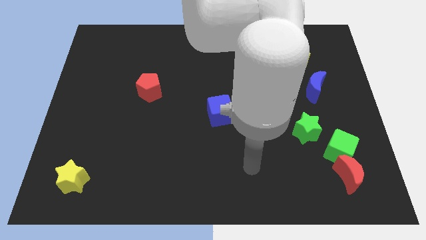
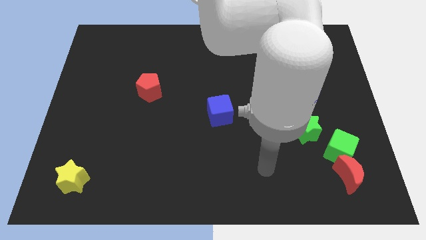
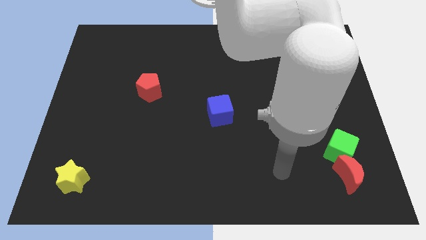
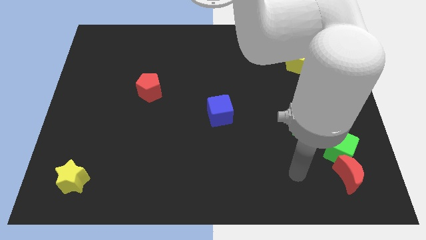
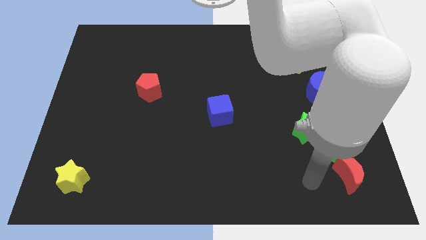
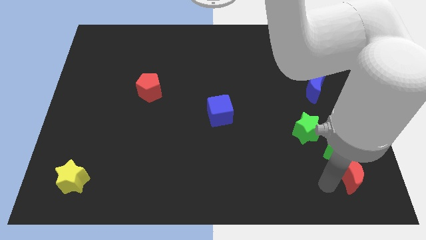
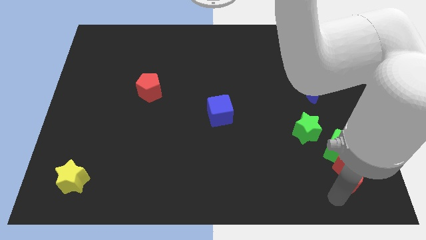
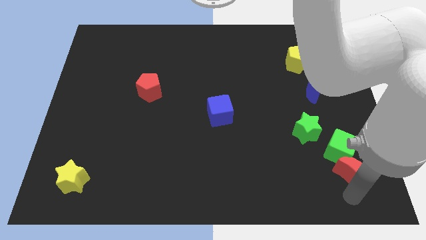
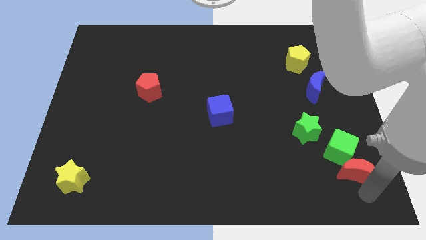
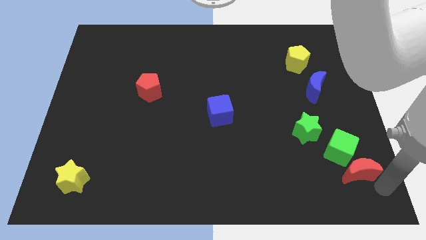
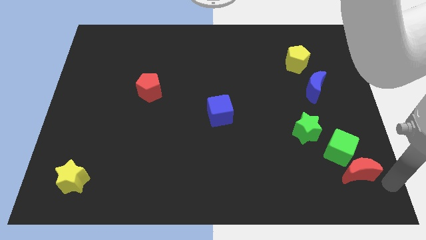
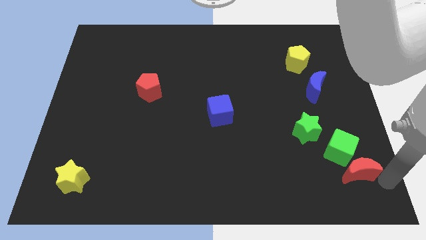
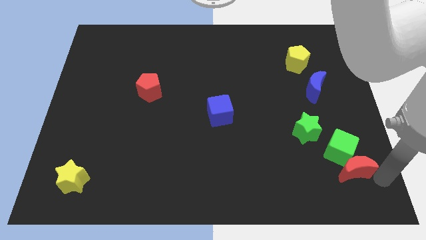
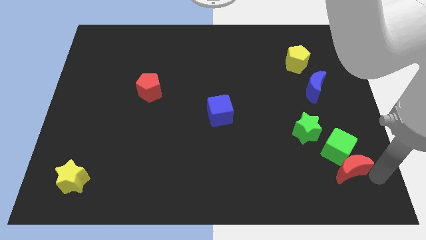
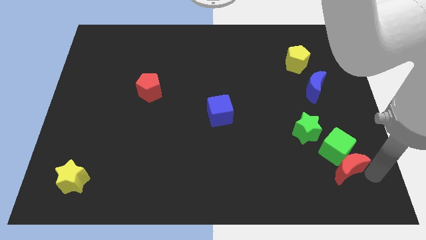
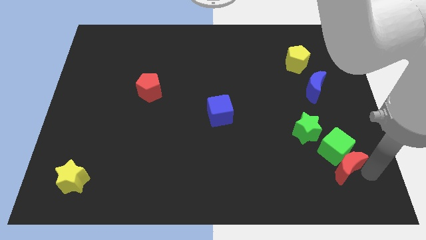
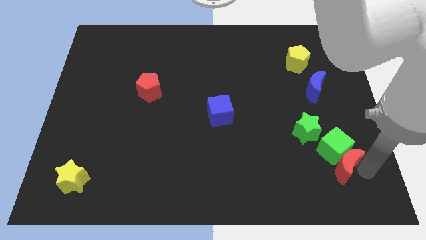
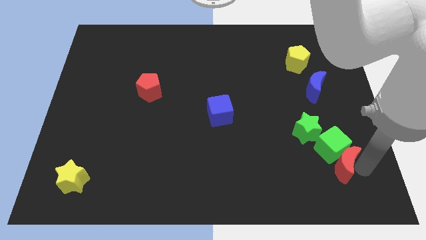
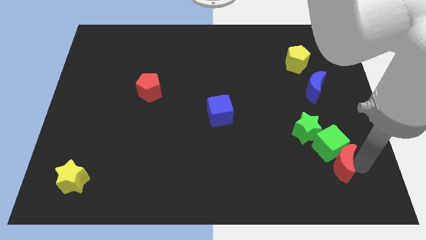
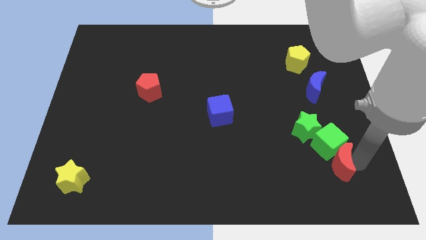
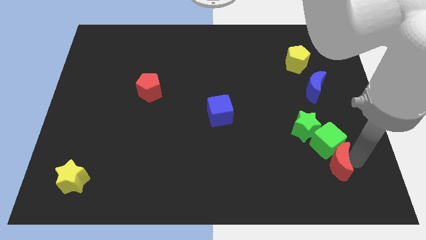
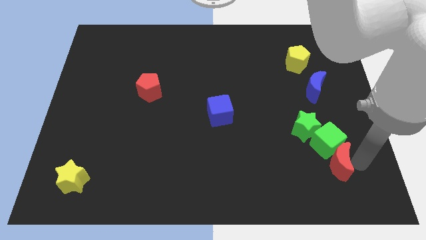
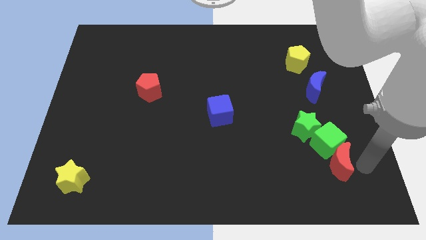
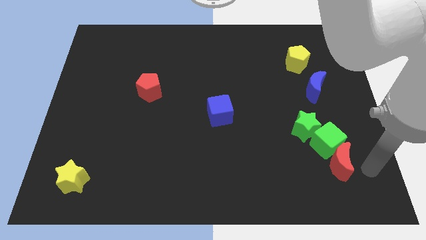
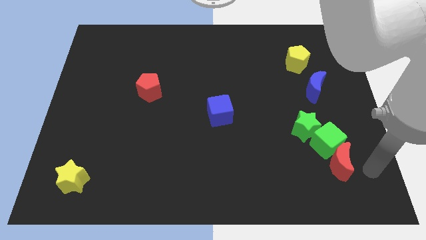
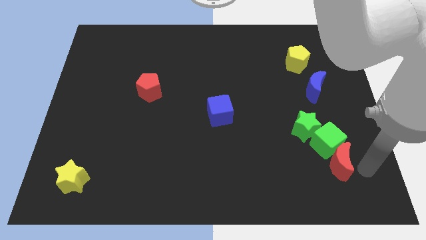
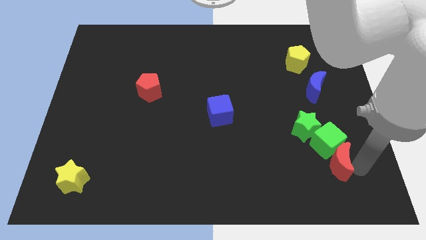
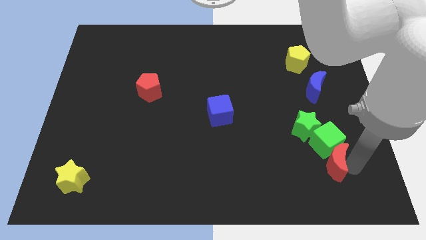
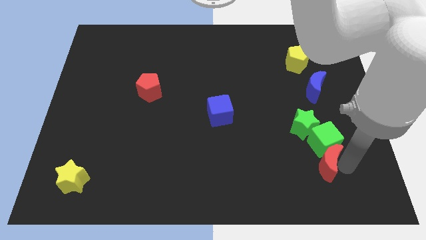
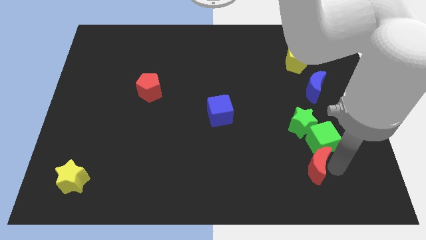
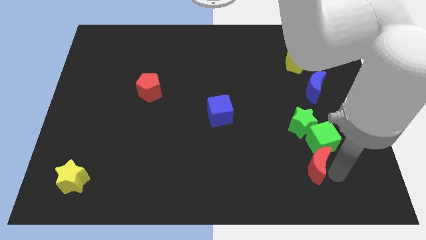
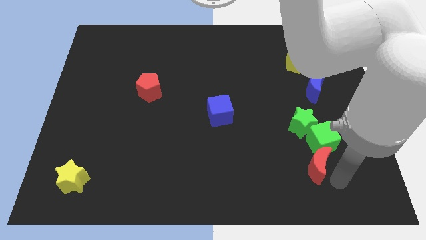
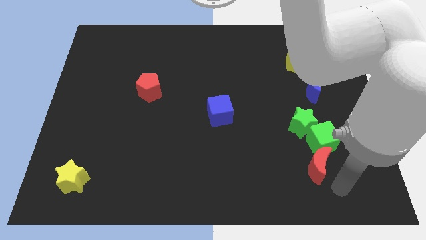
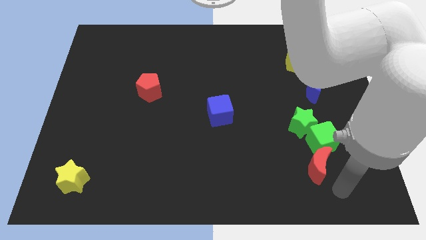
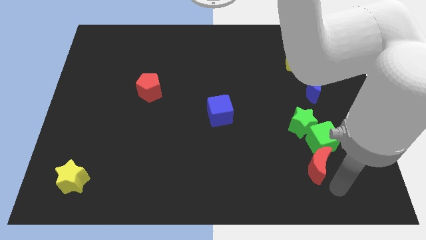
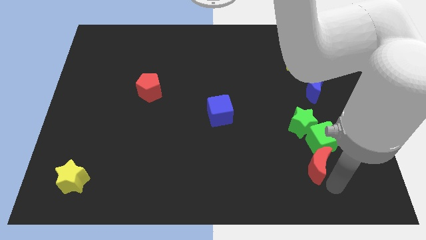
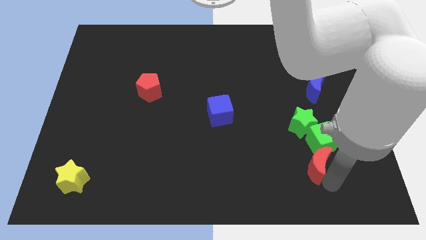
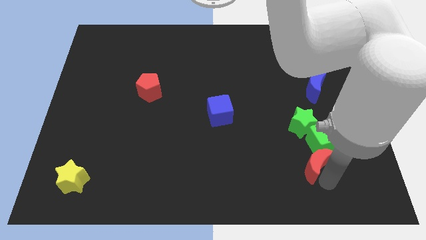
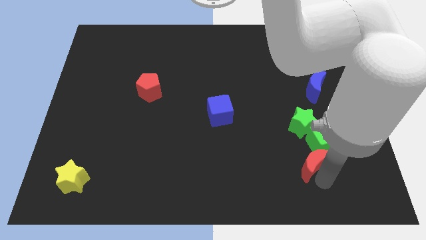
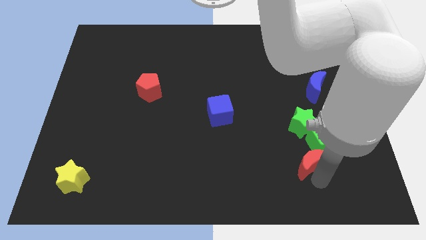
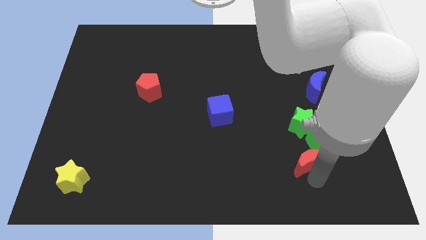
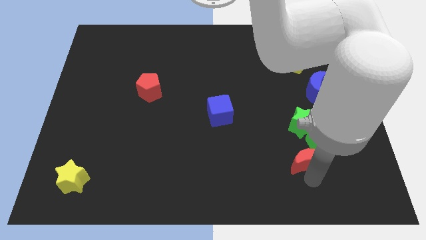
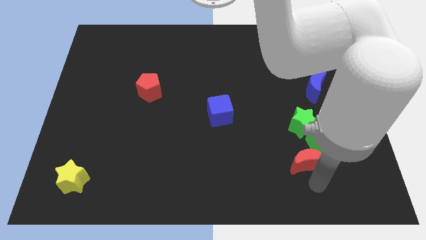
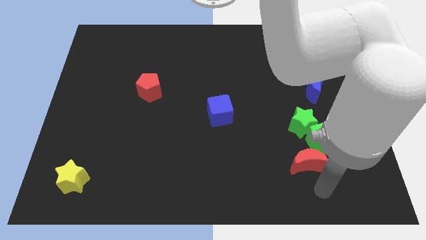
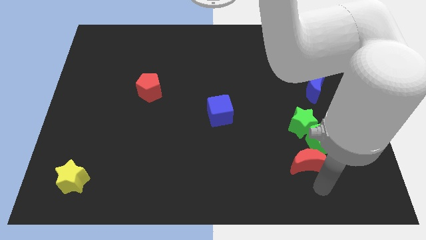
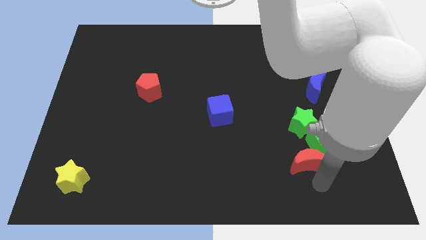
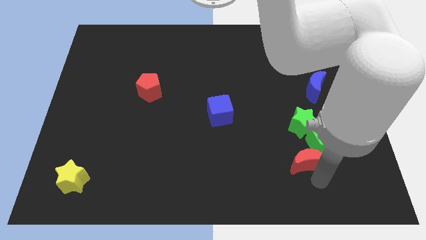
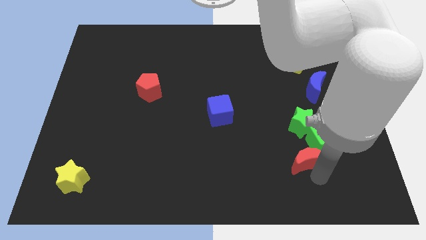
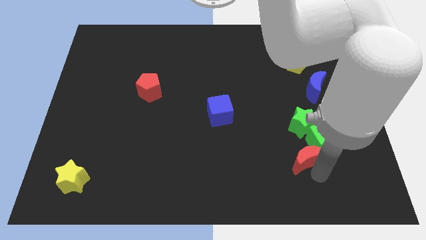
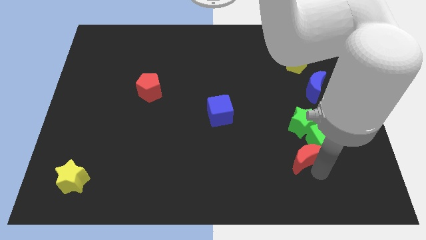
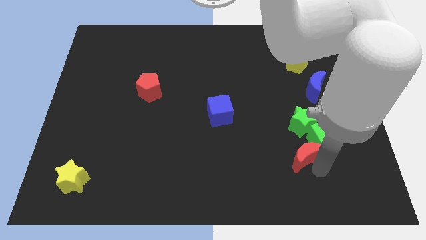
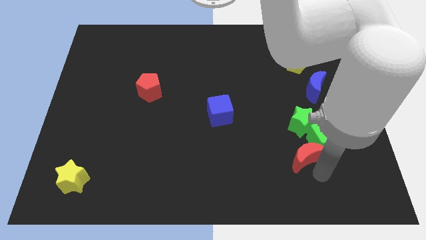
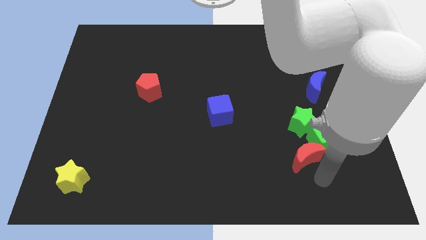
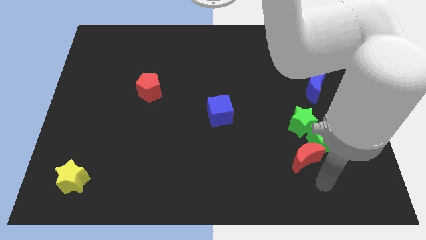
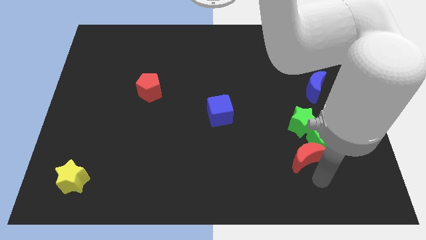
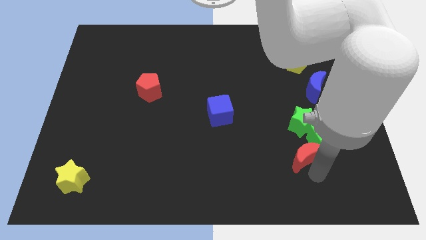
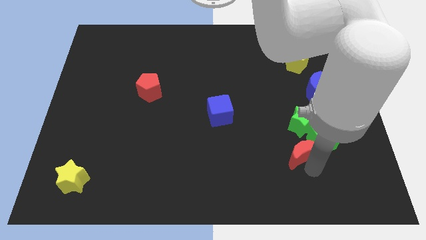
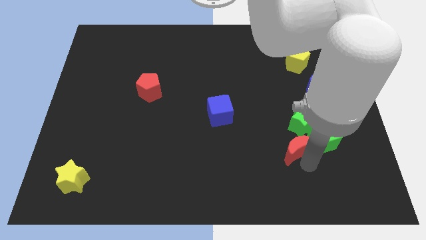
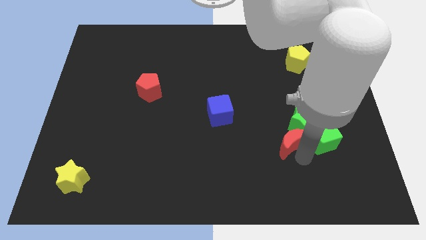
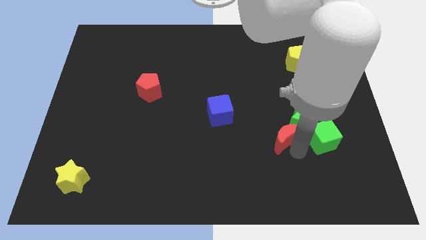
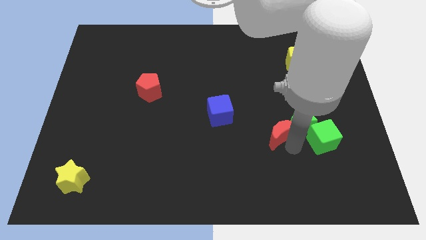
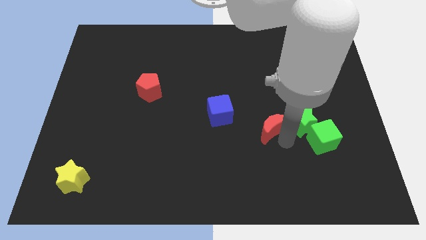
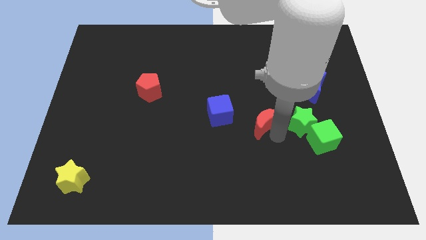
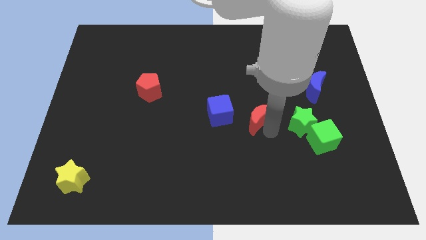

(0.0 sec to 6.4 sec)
slide the red moon to the middle

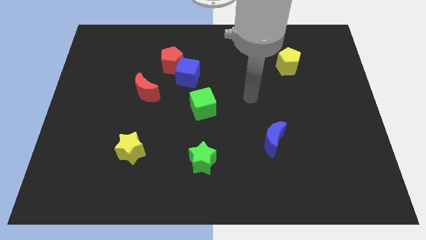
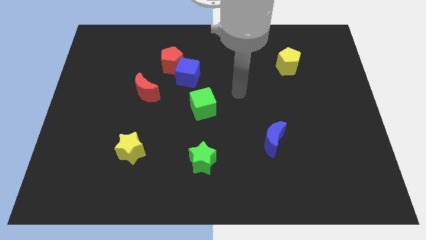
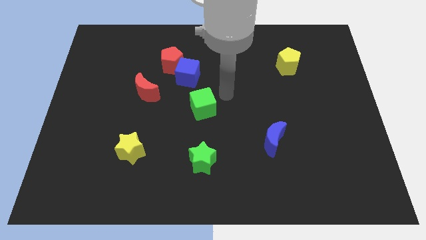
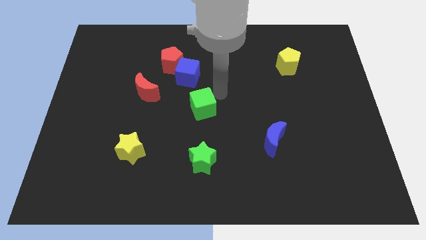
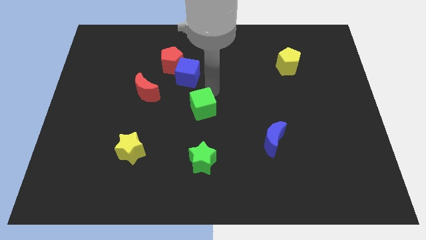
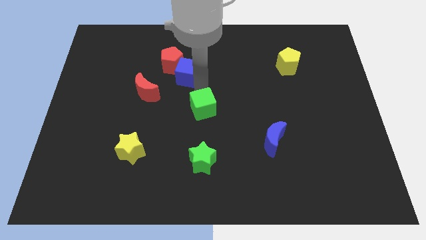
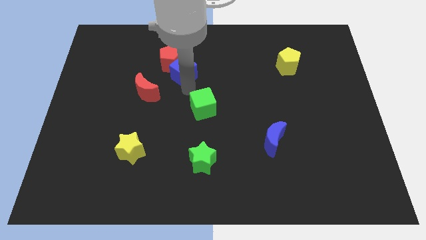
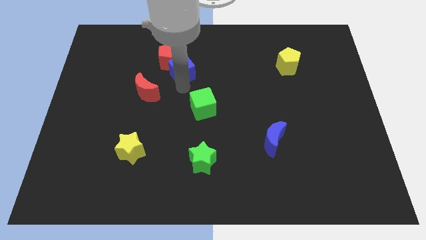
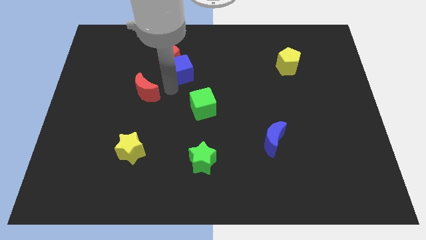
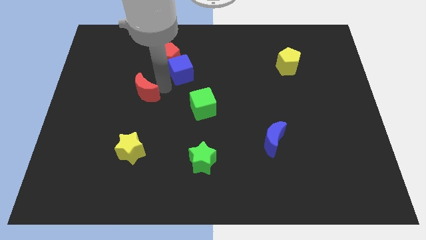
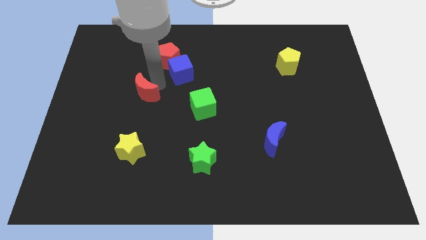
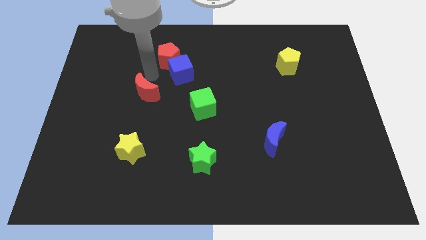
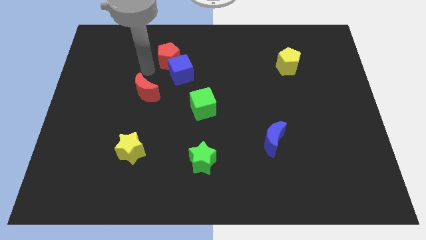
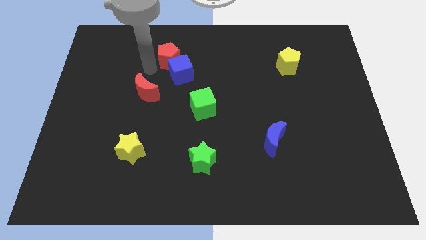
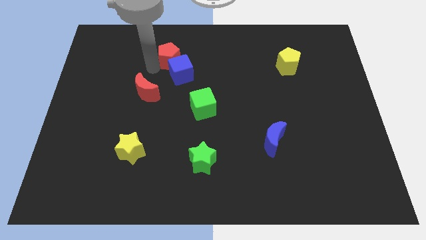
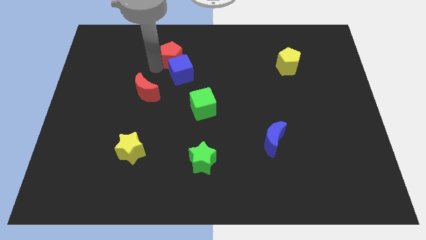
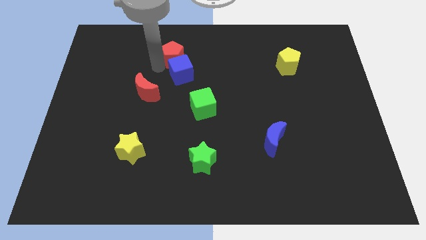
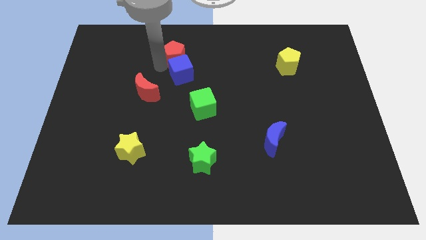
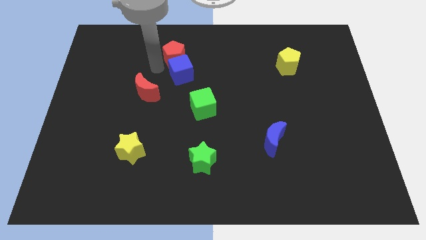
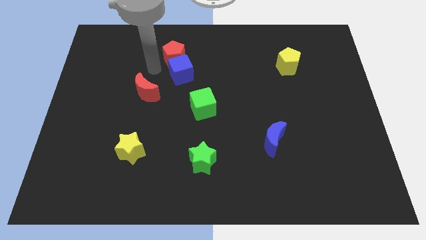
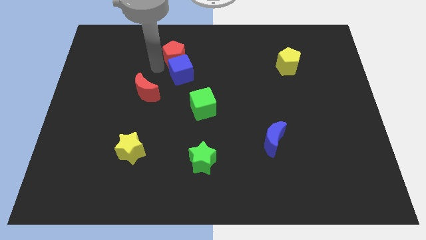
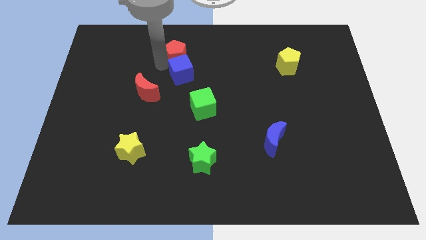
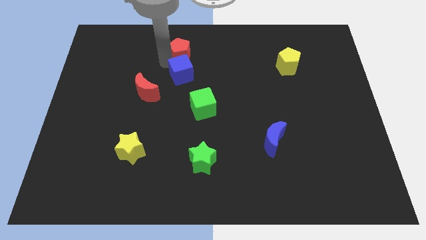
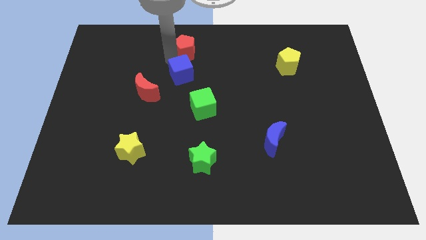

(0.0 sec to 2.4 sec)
slide the red pentagon to the top
